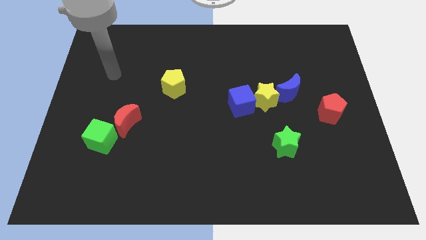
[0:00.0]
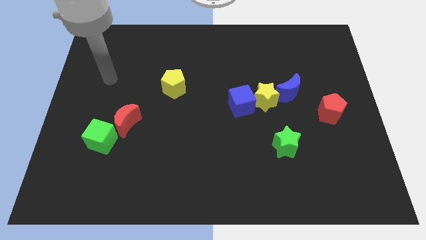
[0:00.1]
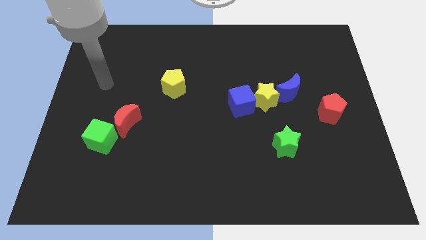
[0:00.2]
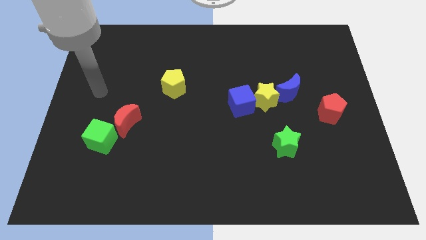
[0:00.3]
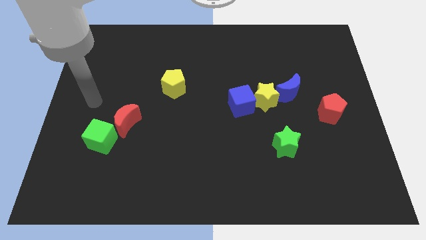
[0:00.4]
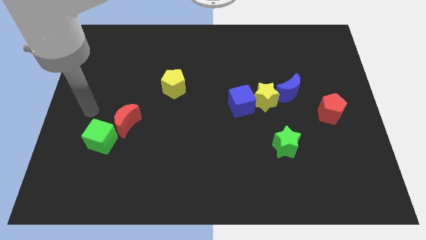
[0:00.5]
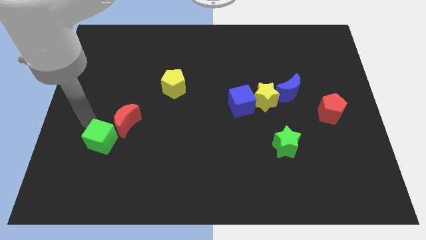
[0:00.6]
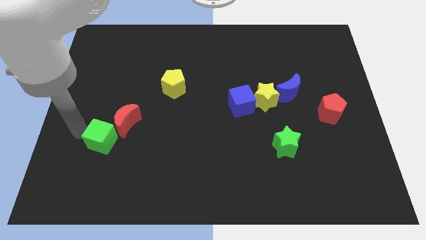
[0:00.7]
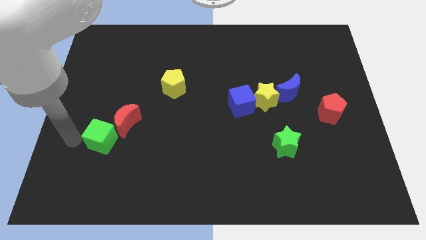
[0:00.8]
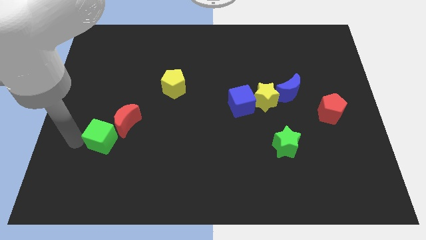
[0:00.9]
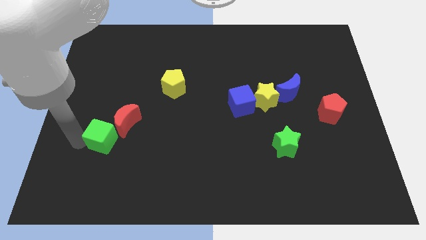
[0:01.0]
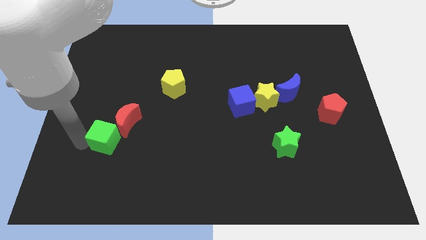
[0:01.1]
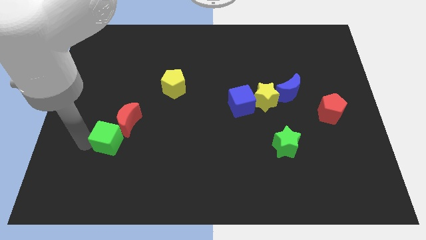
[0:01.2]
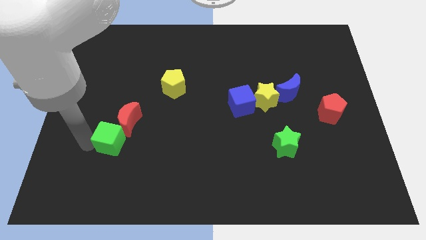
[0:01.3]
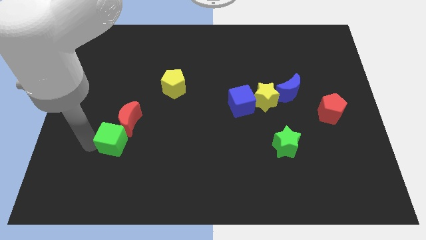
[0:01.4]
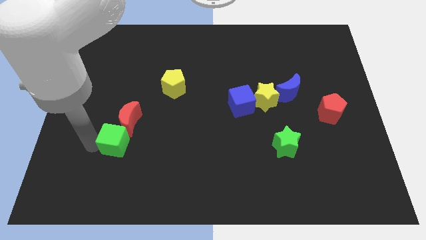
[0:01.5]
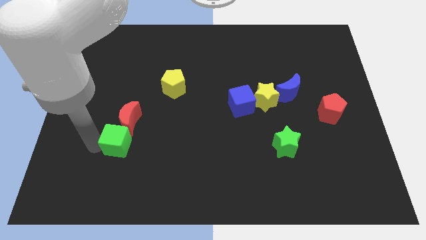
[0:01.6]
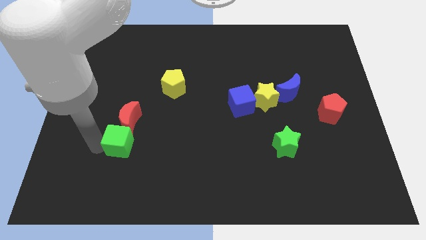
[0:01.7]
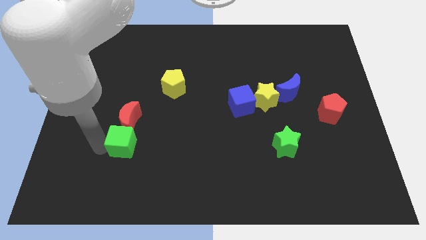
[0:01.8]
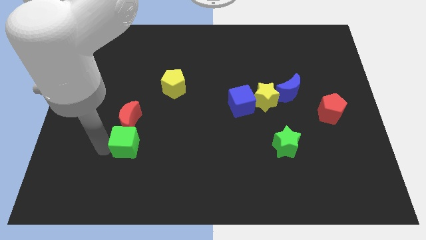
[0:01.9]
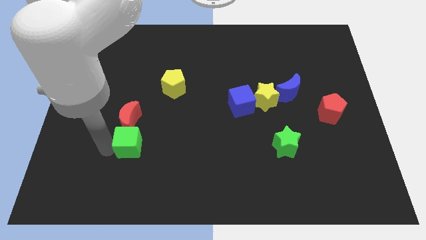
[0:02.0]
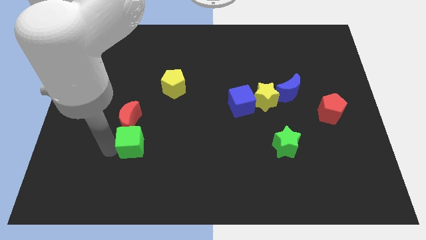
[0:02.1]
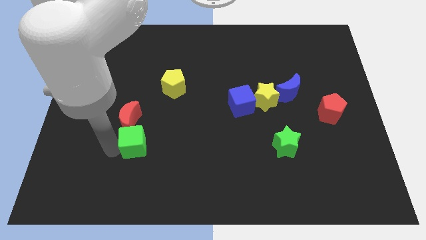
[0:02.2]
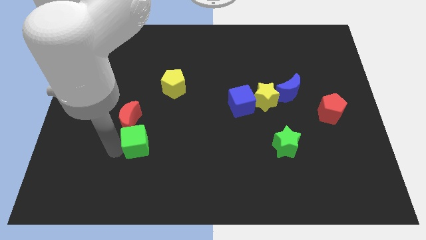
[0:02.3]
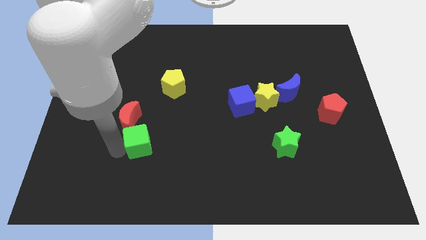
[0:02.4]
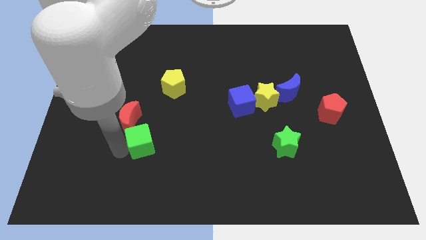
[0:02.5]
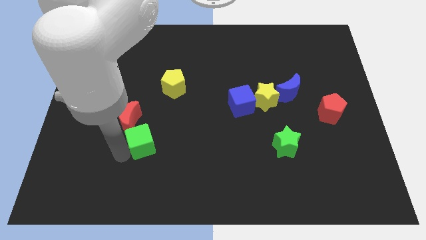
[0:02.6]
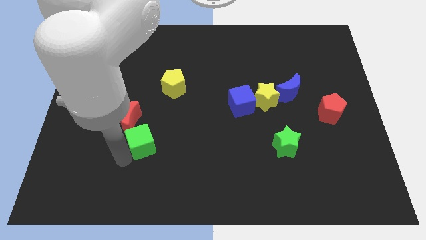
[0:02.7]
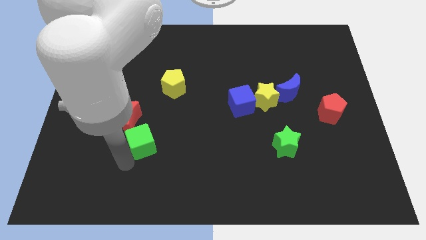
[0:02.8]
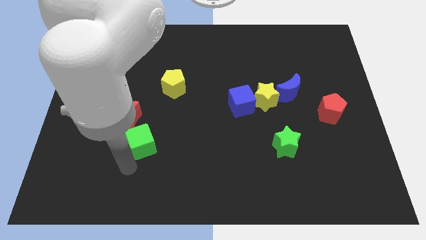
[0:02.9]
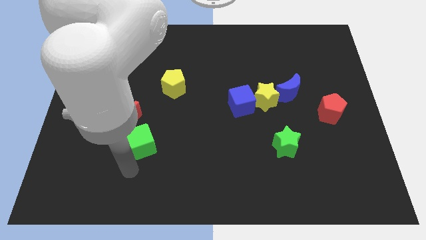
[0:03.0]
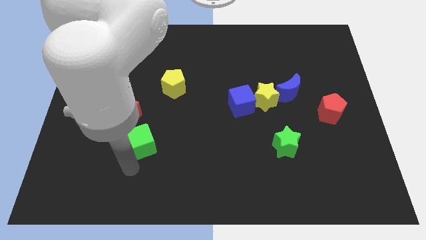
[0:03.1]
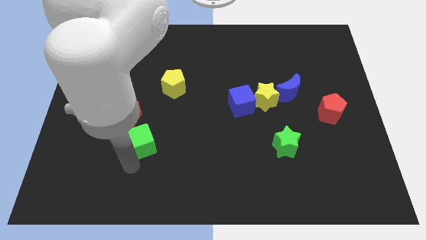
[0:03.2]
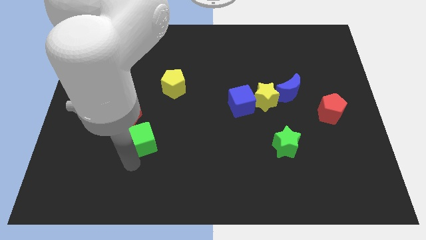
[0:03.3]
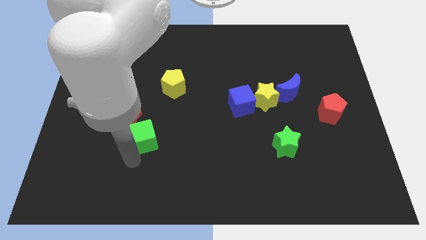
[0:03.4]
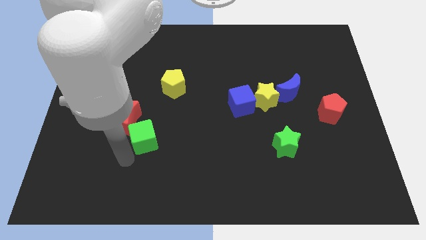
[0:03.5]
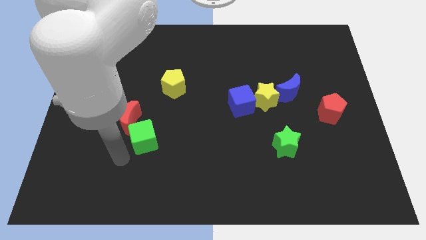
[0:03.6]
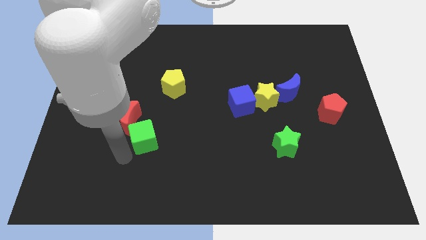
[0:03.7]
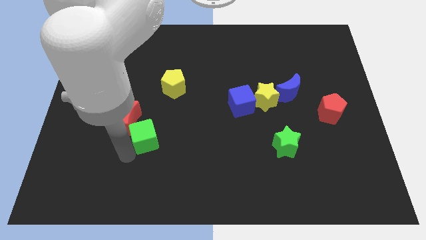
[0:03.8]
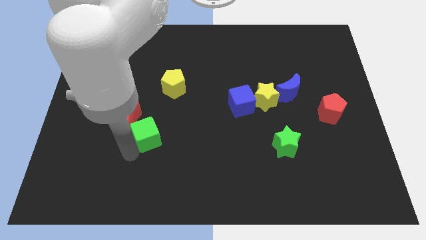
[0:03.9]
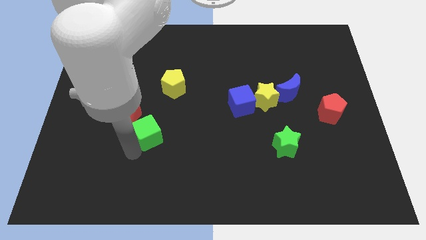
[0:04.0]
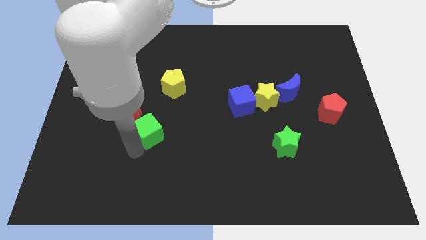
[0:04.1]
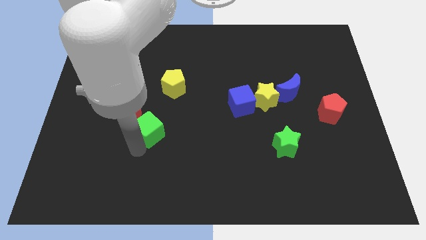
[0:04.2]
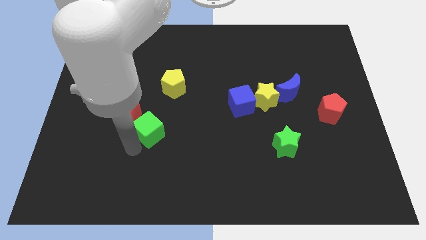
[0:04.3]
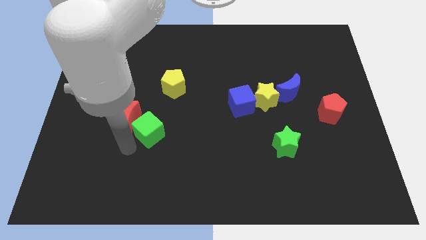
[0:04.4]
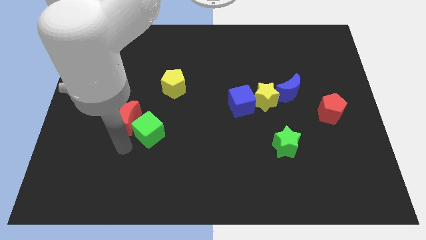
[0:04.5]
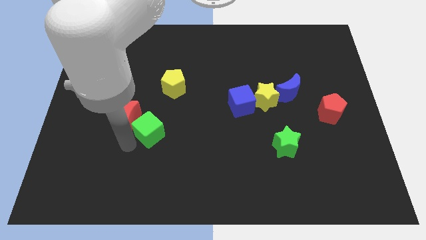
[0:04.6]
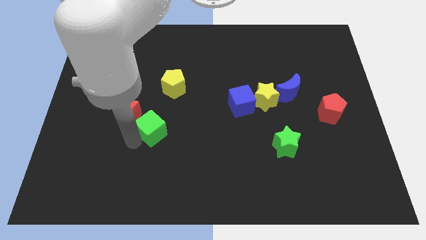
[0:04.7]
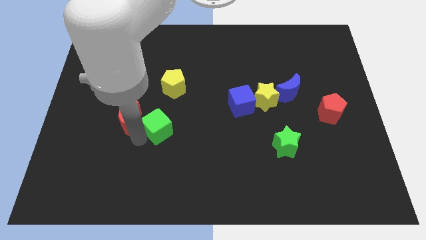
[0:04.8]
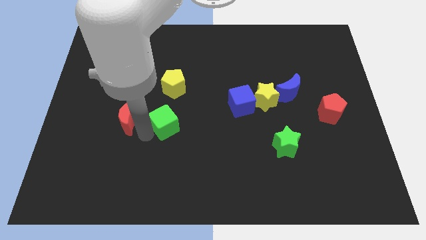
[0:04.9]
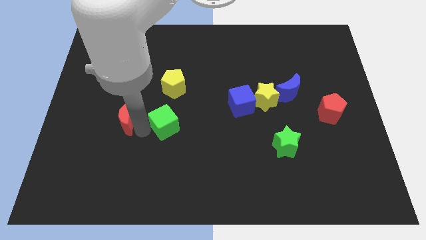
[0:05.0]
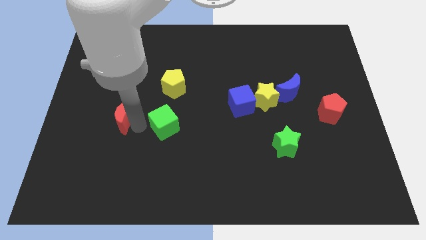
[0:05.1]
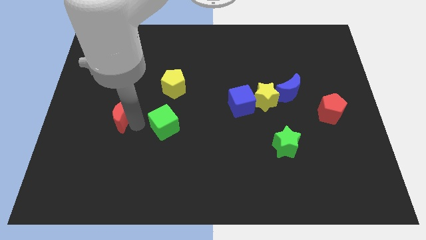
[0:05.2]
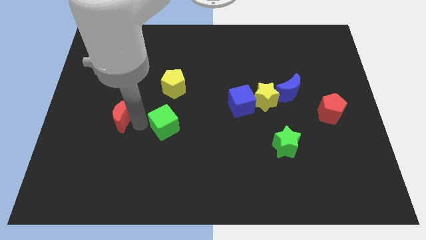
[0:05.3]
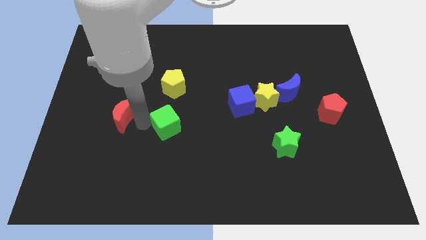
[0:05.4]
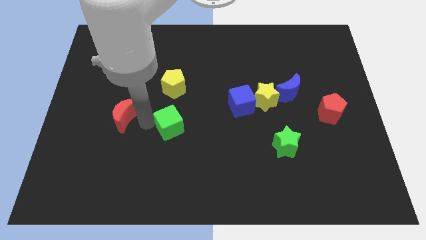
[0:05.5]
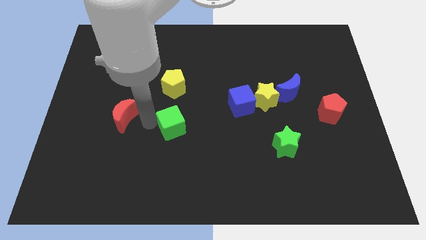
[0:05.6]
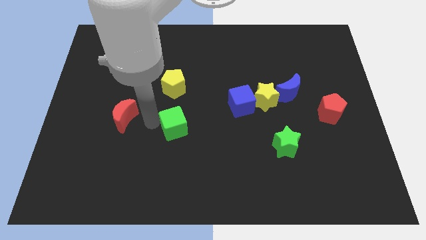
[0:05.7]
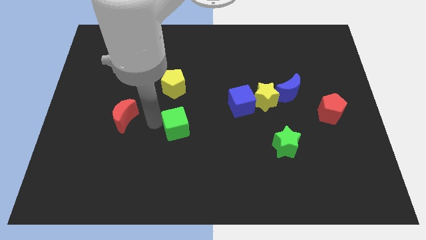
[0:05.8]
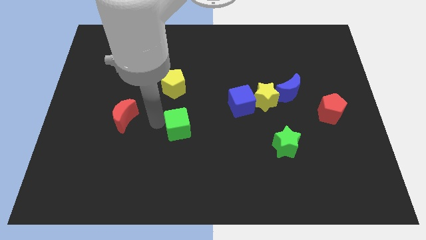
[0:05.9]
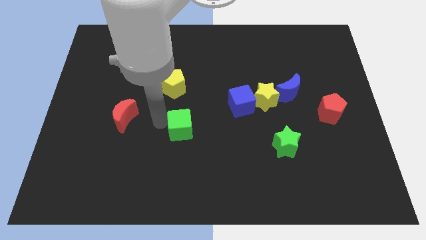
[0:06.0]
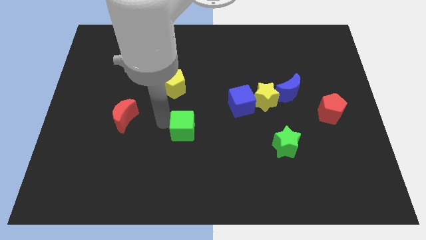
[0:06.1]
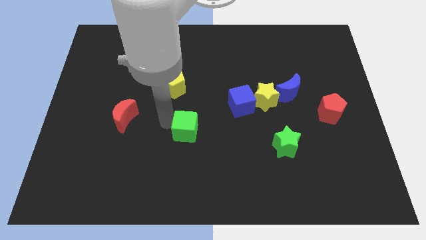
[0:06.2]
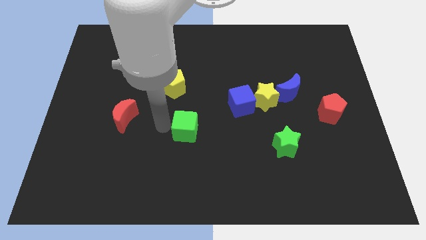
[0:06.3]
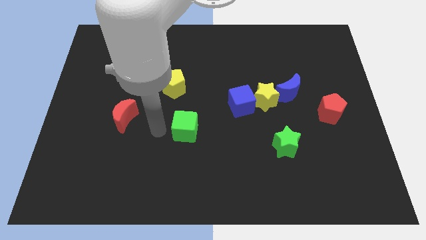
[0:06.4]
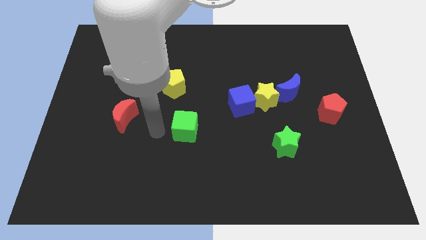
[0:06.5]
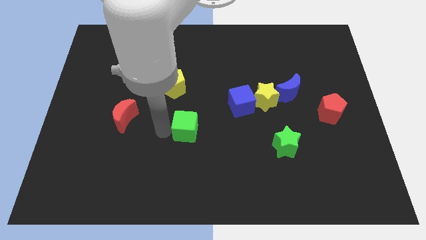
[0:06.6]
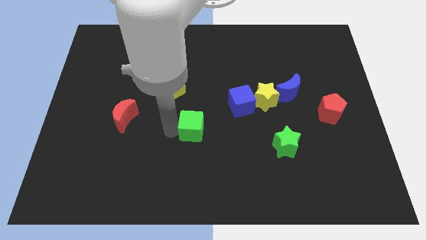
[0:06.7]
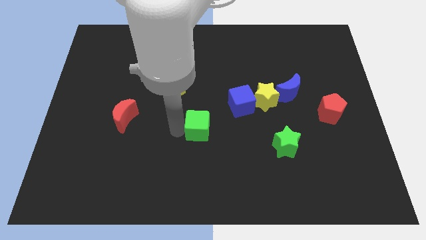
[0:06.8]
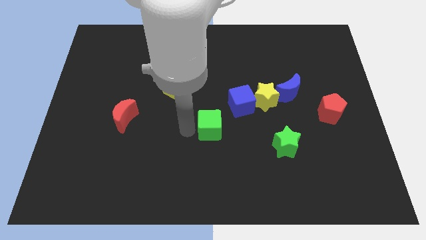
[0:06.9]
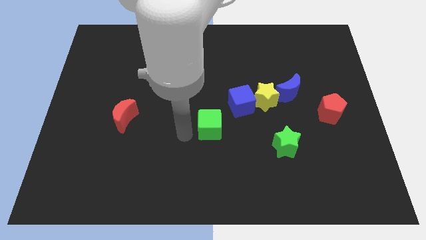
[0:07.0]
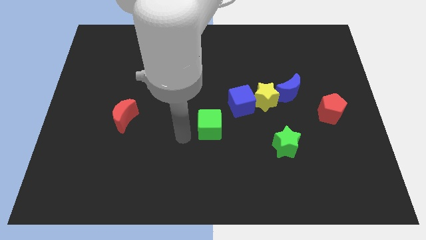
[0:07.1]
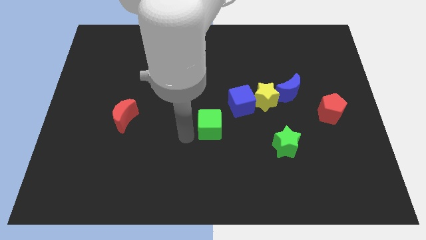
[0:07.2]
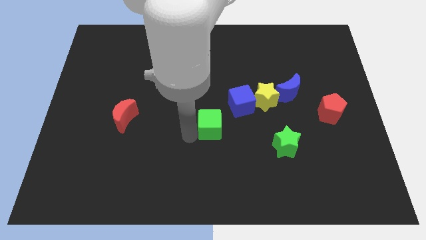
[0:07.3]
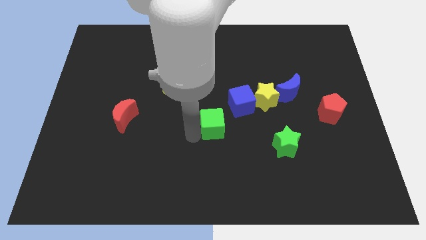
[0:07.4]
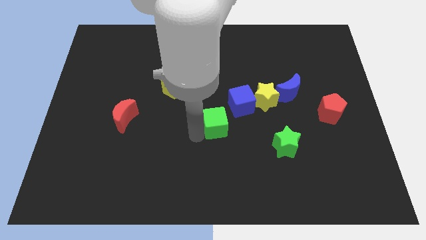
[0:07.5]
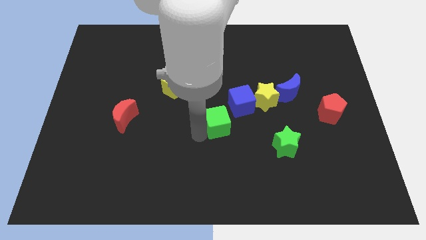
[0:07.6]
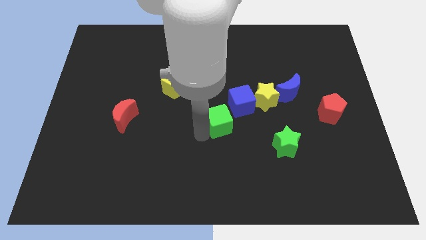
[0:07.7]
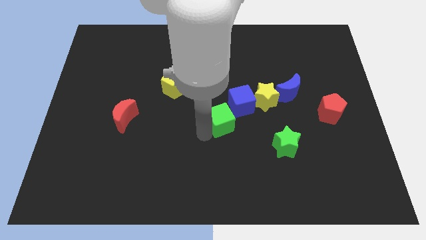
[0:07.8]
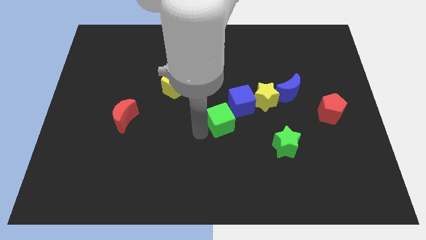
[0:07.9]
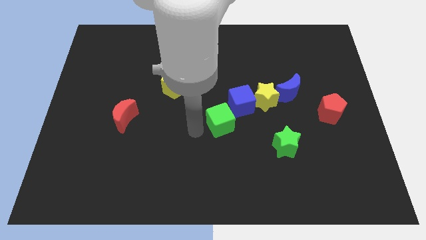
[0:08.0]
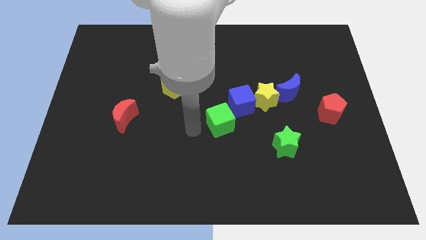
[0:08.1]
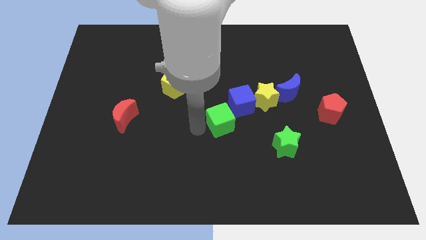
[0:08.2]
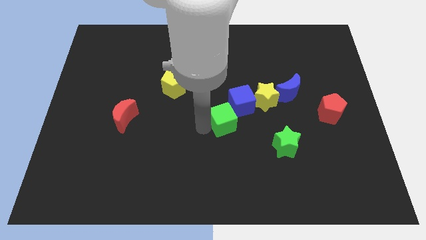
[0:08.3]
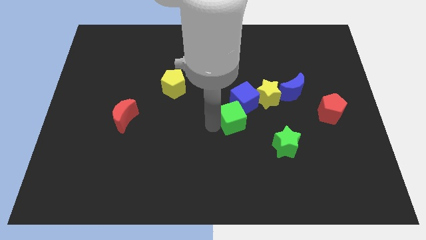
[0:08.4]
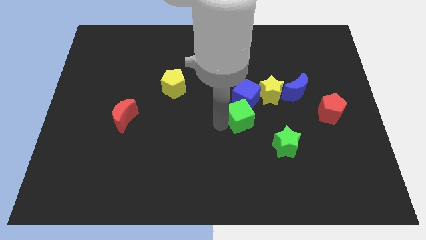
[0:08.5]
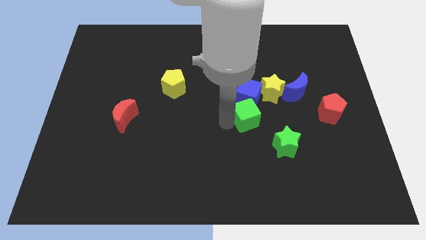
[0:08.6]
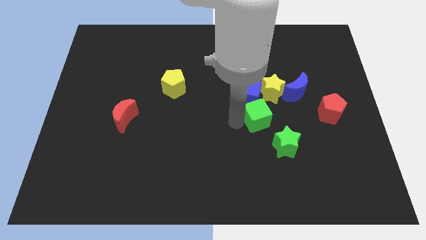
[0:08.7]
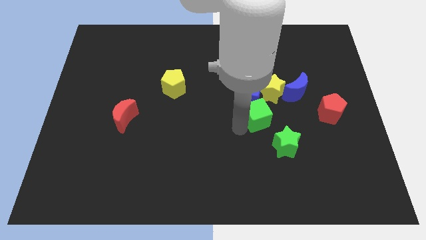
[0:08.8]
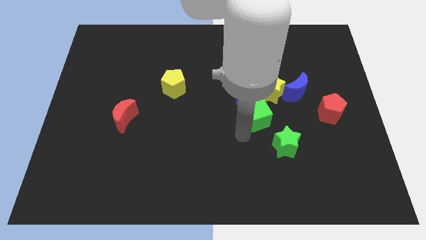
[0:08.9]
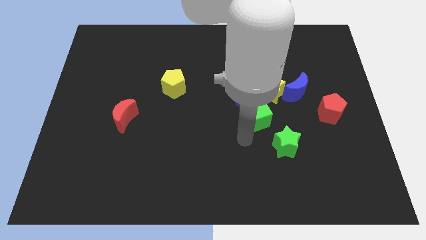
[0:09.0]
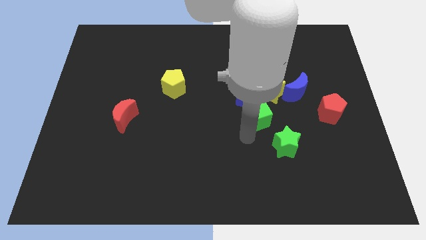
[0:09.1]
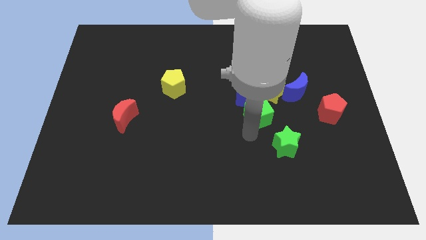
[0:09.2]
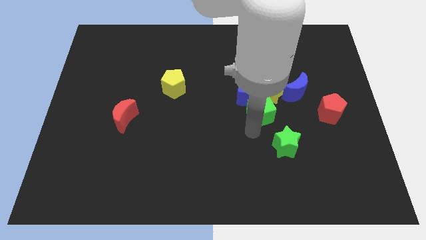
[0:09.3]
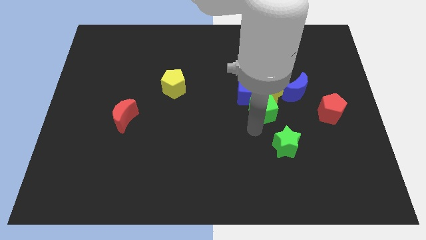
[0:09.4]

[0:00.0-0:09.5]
move the green cube next to the yellow star
